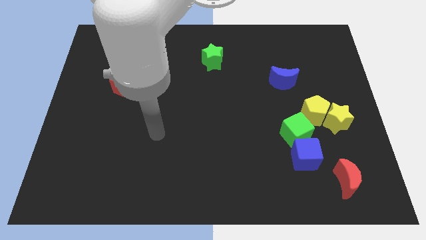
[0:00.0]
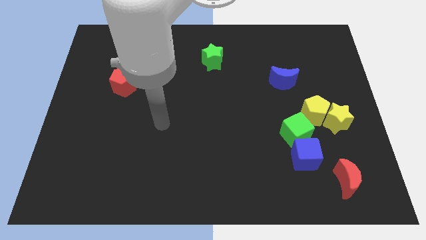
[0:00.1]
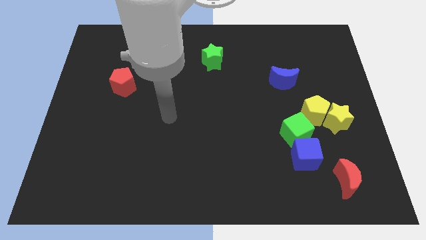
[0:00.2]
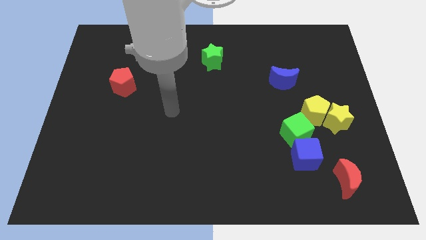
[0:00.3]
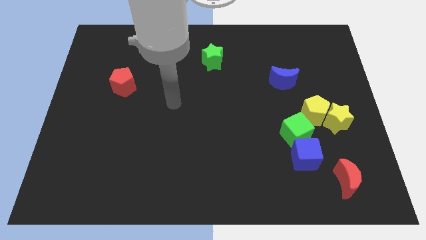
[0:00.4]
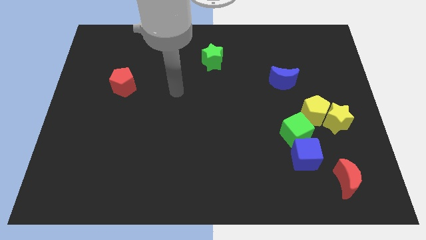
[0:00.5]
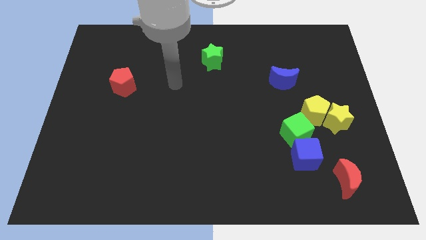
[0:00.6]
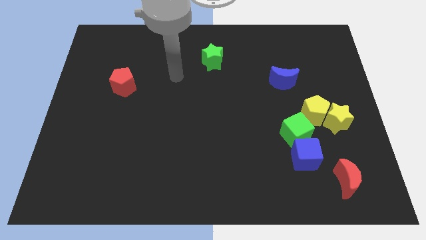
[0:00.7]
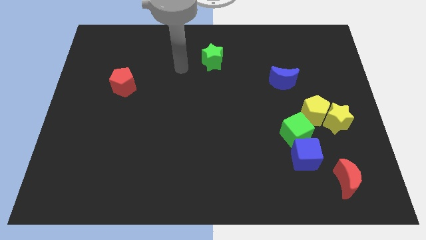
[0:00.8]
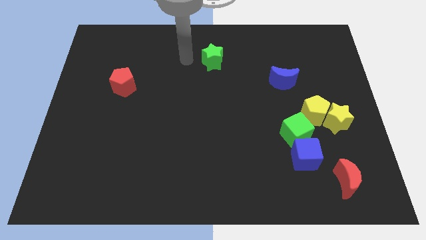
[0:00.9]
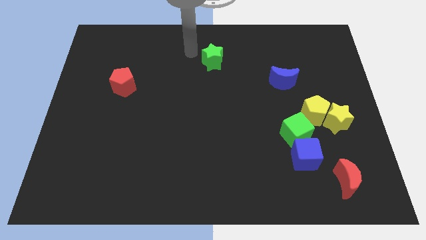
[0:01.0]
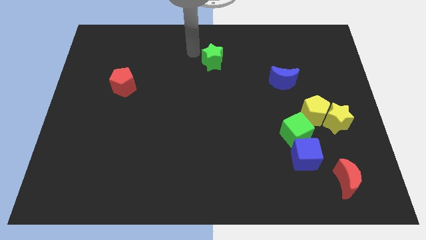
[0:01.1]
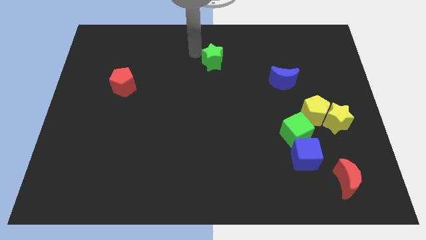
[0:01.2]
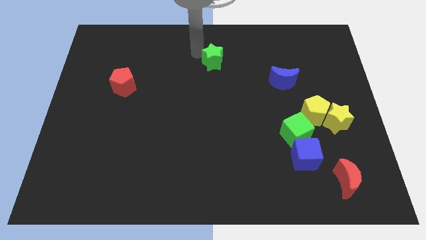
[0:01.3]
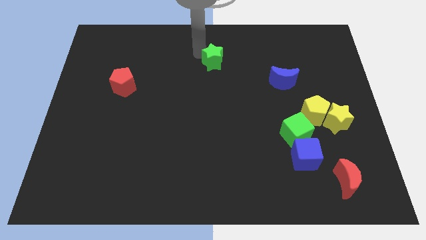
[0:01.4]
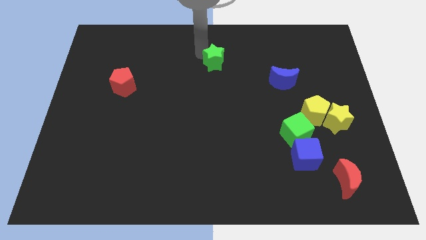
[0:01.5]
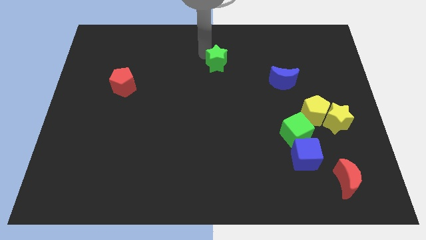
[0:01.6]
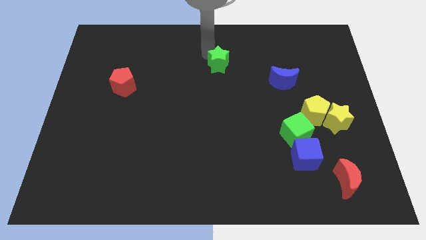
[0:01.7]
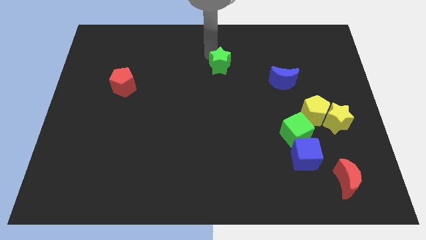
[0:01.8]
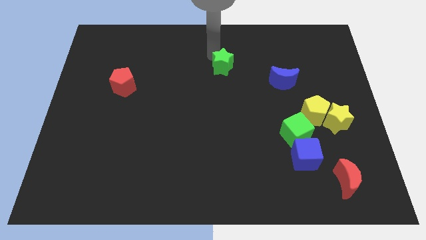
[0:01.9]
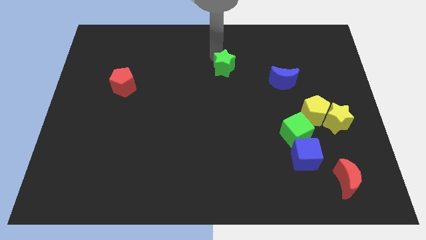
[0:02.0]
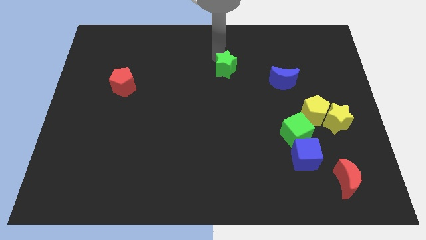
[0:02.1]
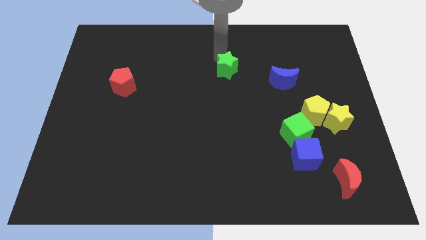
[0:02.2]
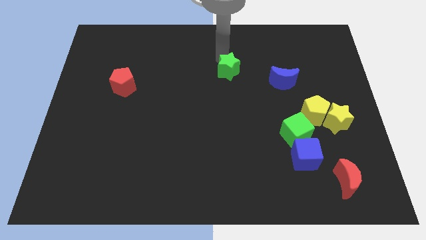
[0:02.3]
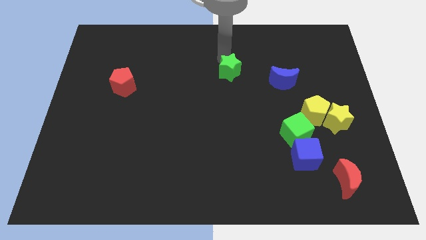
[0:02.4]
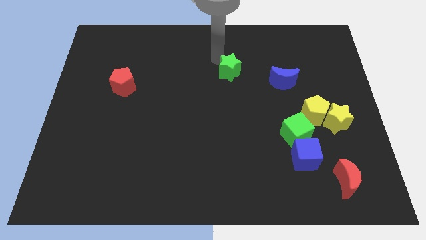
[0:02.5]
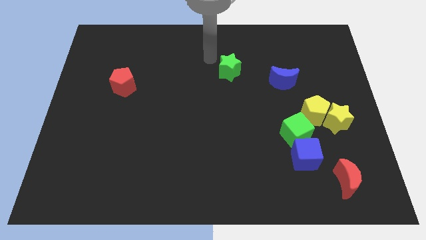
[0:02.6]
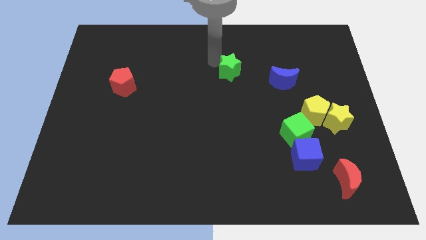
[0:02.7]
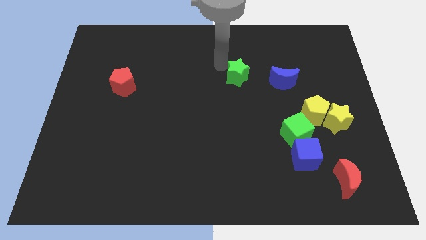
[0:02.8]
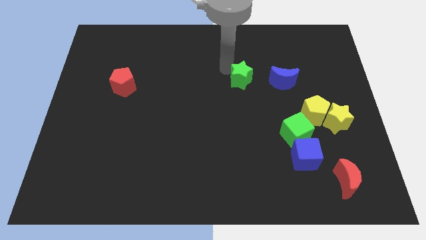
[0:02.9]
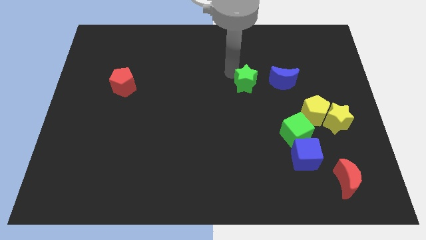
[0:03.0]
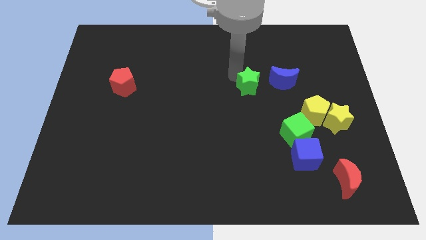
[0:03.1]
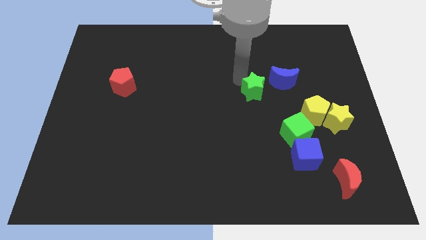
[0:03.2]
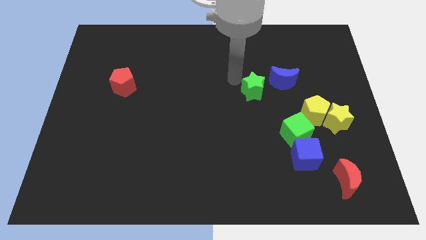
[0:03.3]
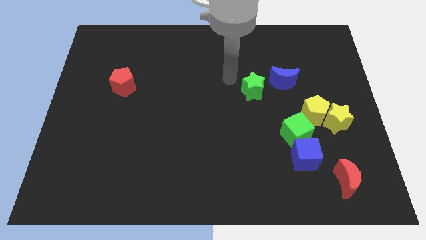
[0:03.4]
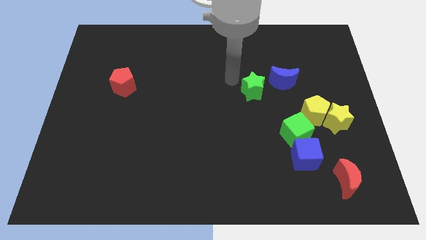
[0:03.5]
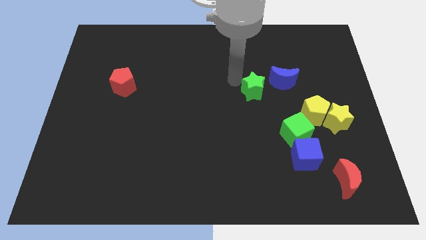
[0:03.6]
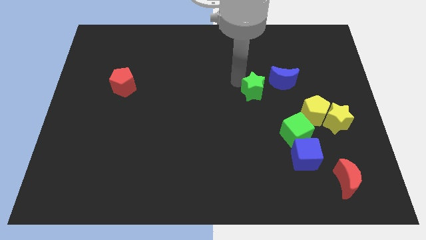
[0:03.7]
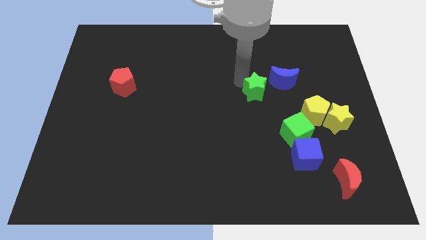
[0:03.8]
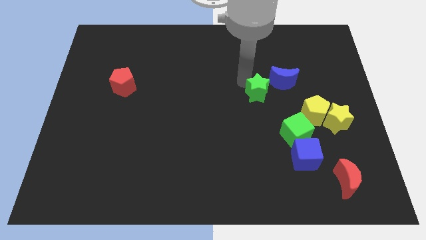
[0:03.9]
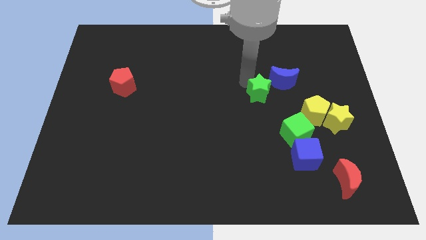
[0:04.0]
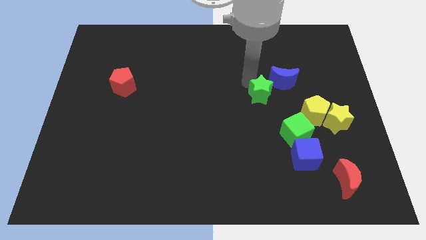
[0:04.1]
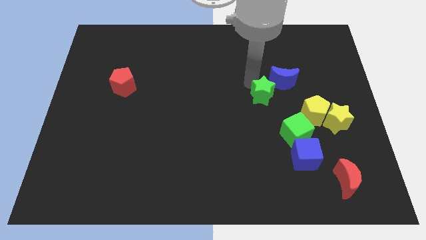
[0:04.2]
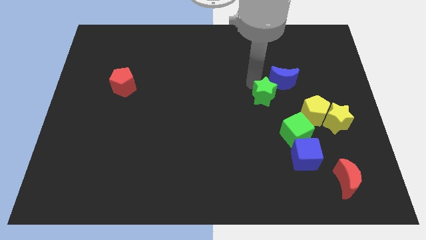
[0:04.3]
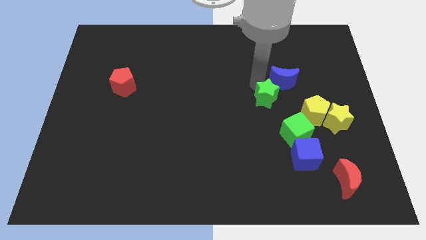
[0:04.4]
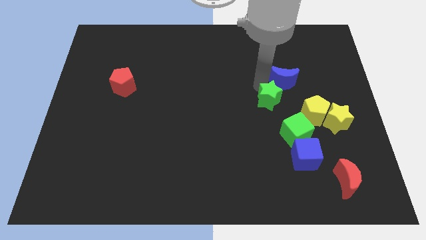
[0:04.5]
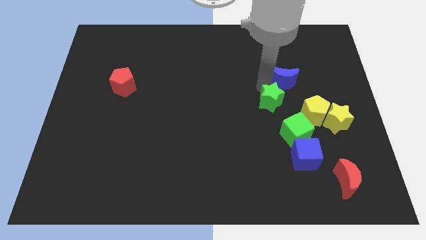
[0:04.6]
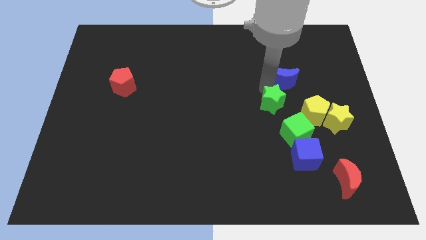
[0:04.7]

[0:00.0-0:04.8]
push the green star downwards and then right

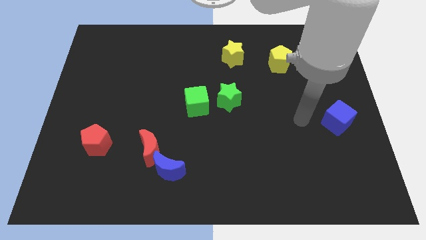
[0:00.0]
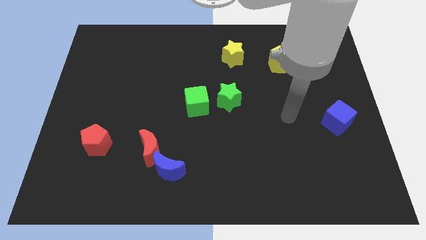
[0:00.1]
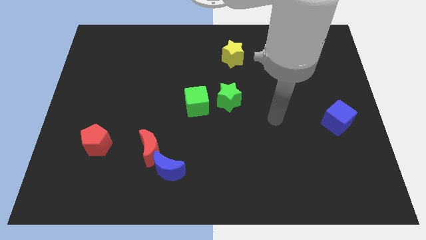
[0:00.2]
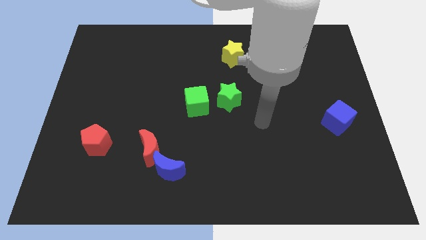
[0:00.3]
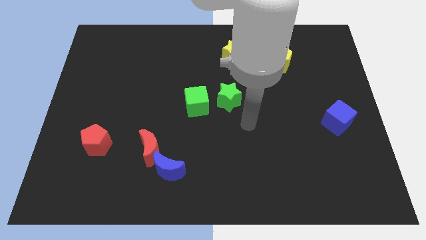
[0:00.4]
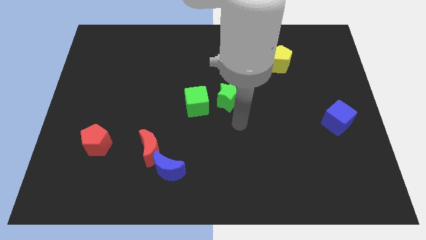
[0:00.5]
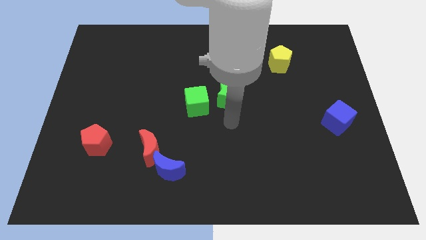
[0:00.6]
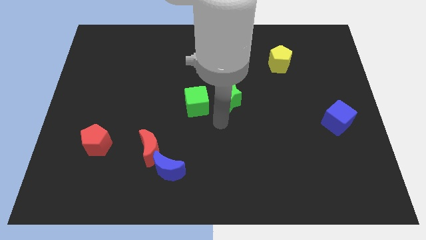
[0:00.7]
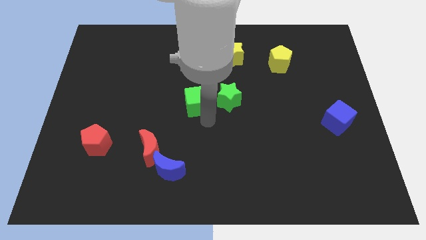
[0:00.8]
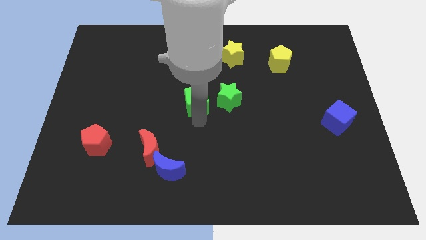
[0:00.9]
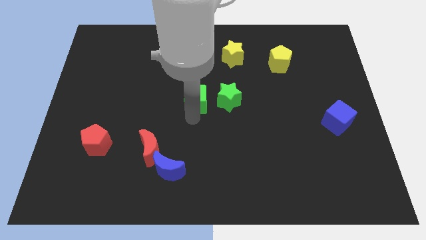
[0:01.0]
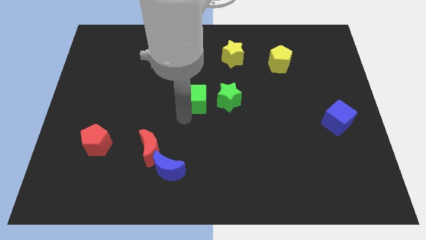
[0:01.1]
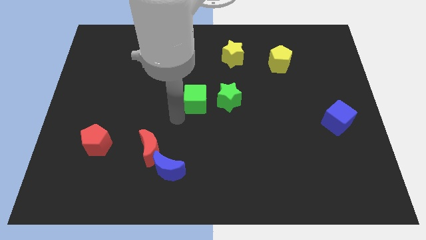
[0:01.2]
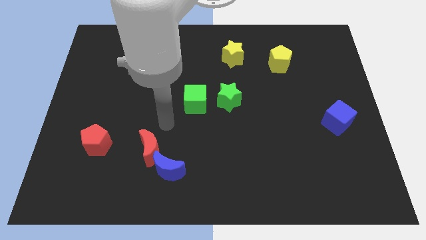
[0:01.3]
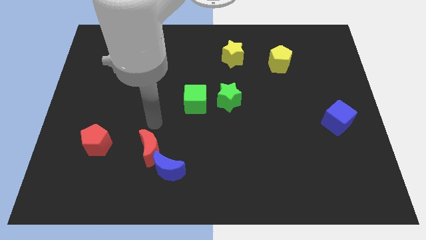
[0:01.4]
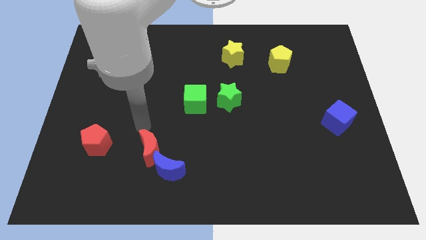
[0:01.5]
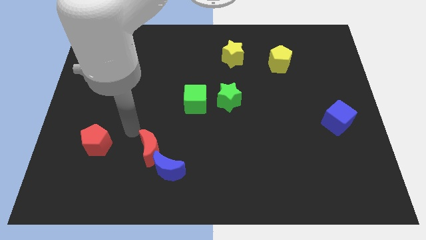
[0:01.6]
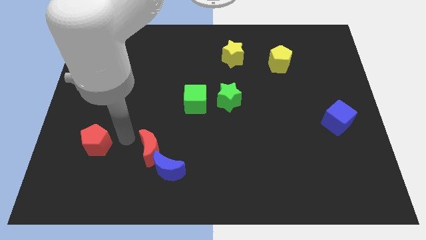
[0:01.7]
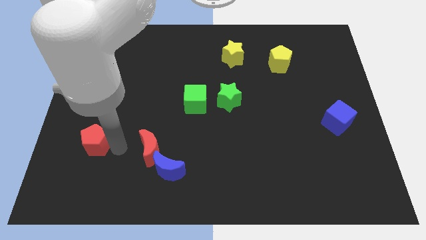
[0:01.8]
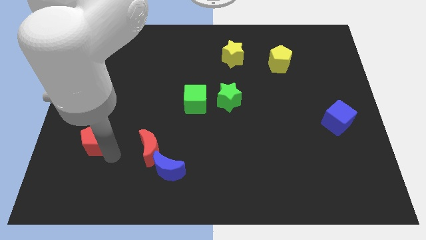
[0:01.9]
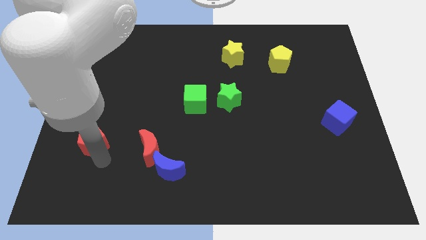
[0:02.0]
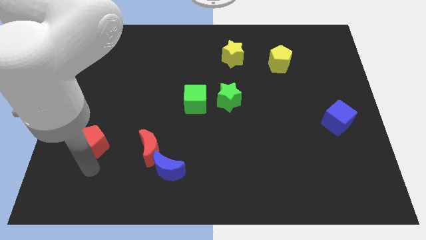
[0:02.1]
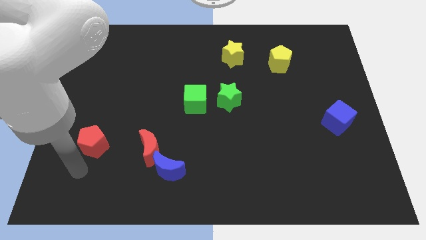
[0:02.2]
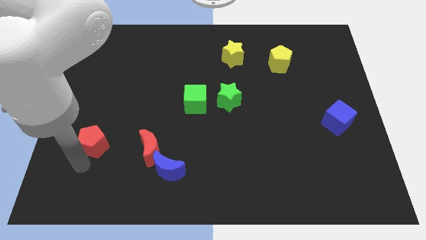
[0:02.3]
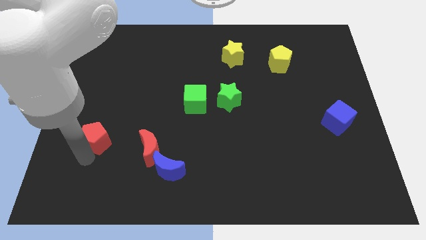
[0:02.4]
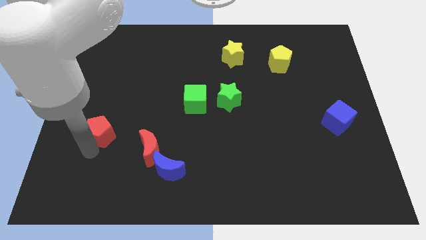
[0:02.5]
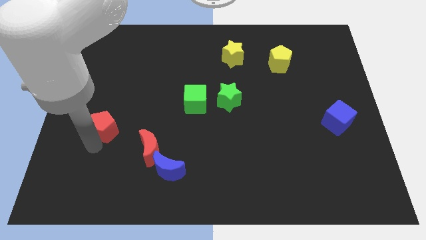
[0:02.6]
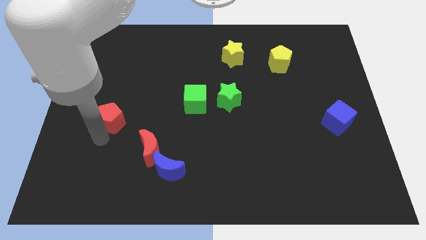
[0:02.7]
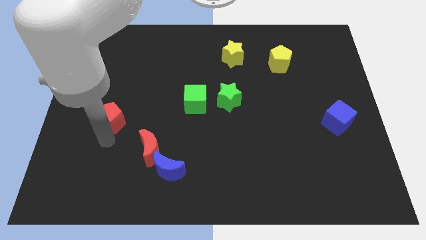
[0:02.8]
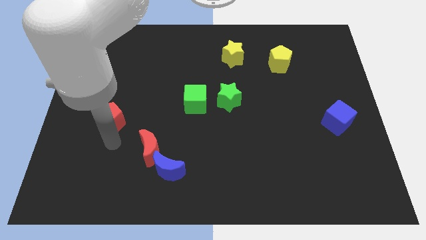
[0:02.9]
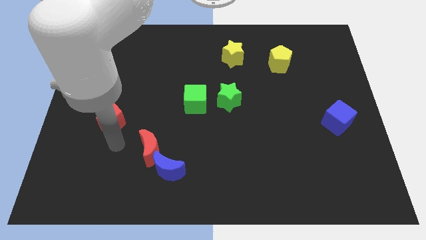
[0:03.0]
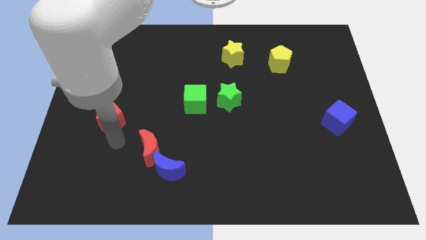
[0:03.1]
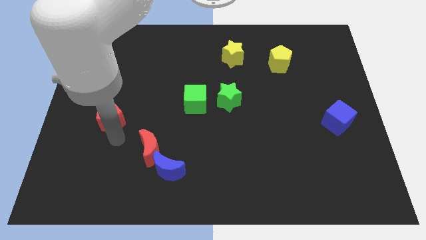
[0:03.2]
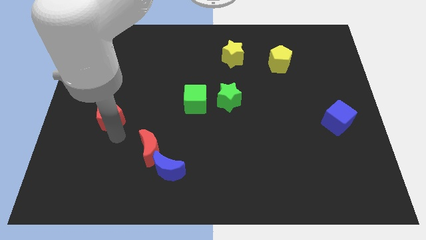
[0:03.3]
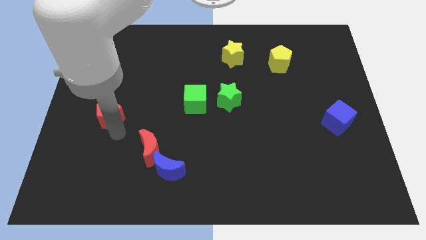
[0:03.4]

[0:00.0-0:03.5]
move the red pentagon a little upwards

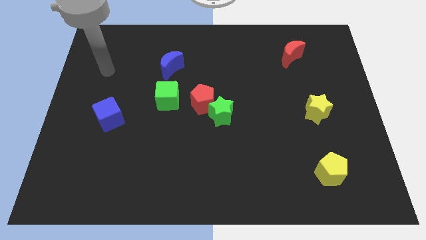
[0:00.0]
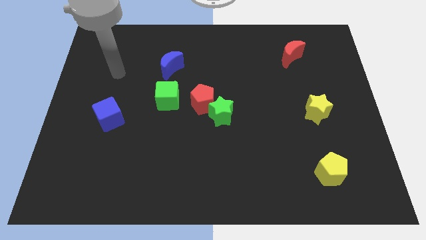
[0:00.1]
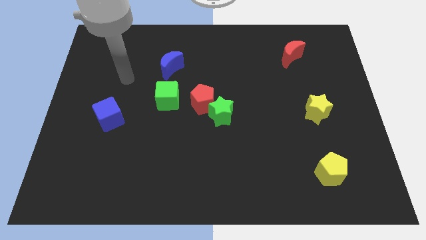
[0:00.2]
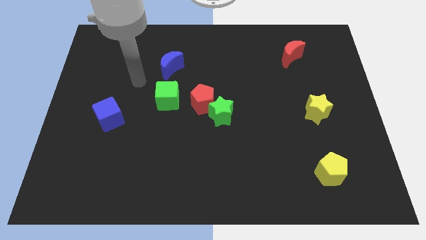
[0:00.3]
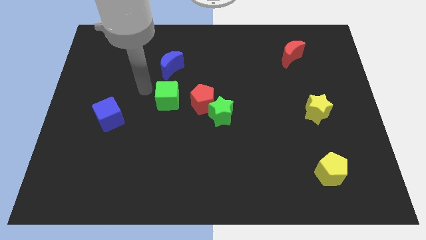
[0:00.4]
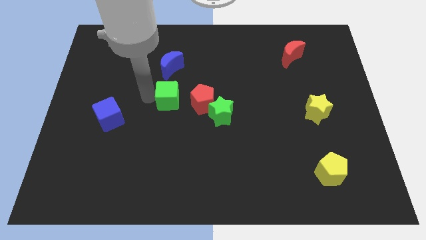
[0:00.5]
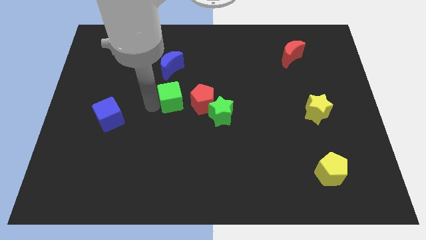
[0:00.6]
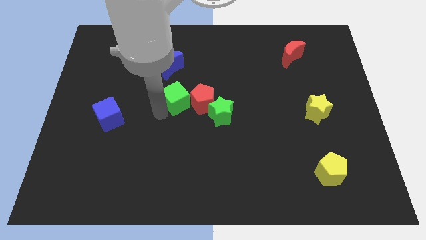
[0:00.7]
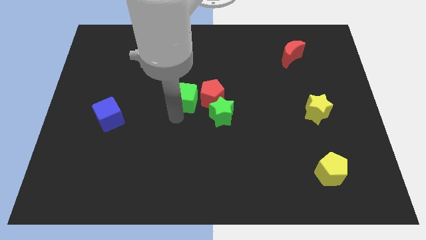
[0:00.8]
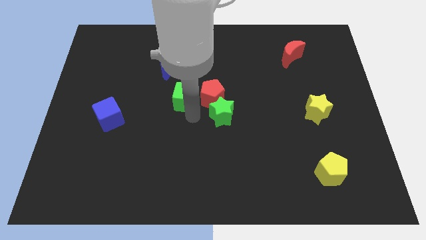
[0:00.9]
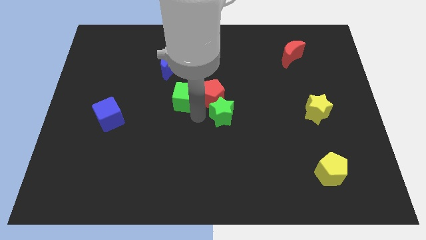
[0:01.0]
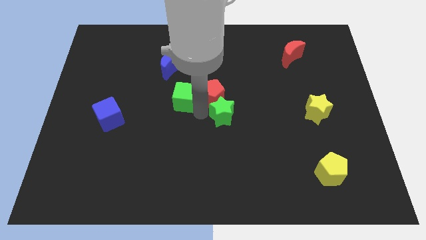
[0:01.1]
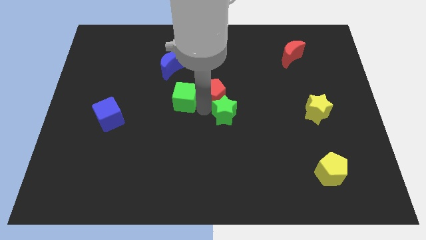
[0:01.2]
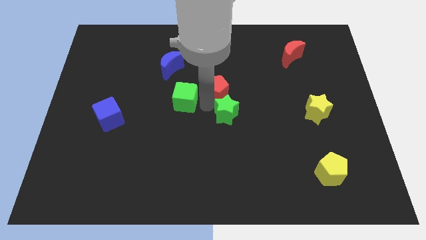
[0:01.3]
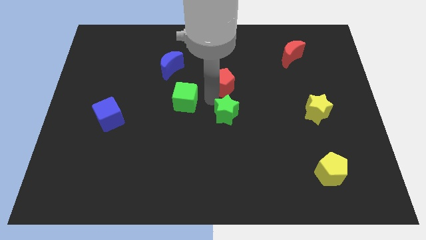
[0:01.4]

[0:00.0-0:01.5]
slightly slide the red pentagon up and right
